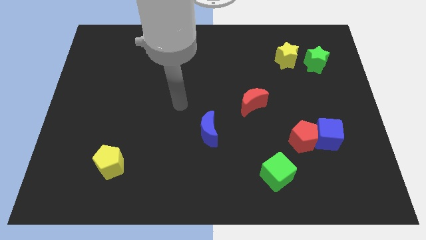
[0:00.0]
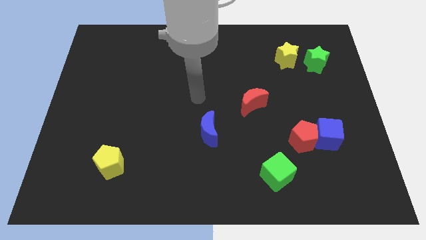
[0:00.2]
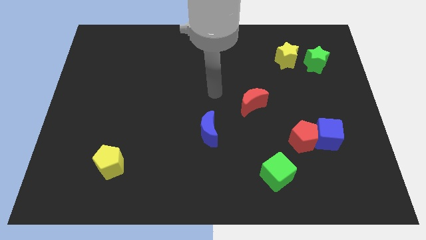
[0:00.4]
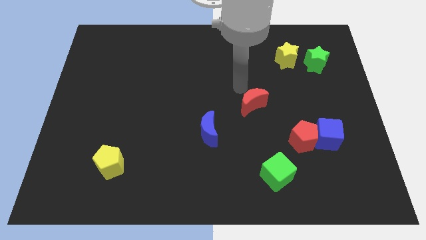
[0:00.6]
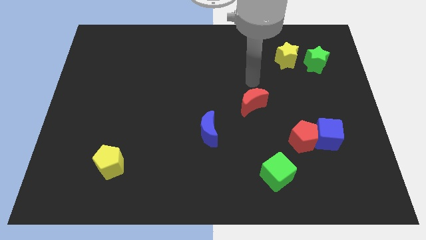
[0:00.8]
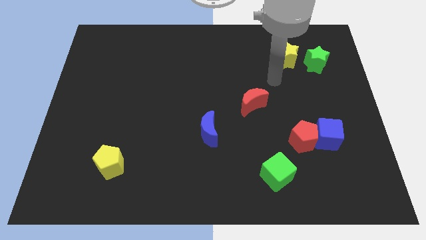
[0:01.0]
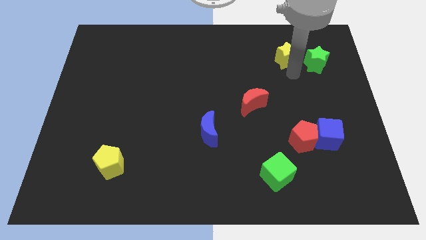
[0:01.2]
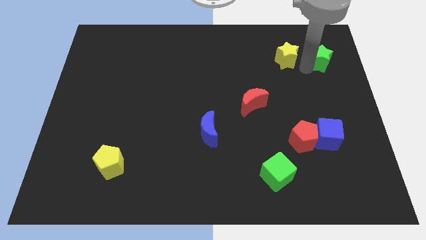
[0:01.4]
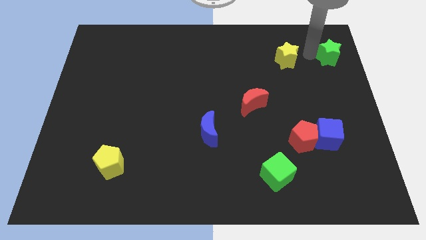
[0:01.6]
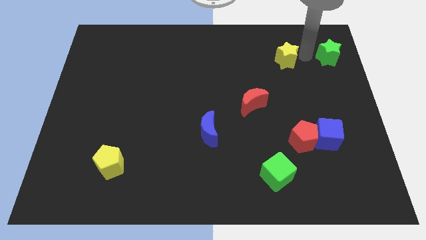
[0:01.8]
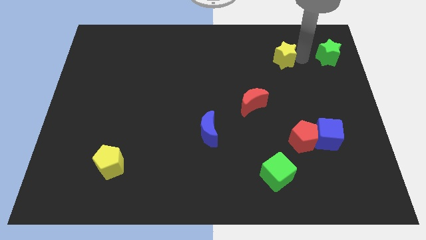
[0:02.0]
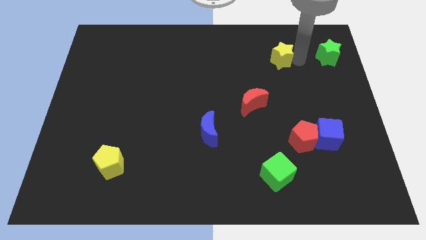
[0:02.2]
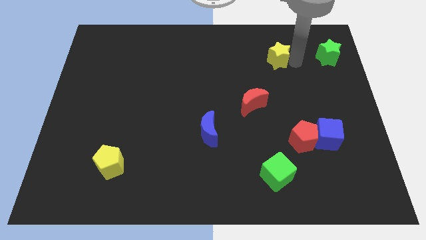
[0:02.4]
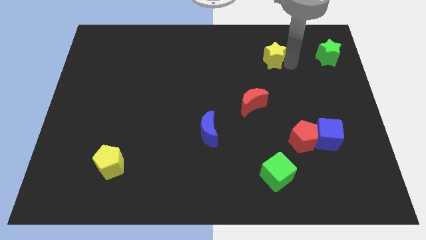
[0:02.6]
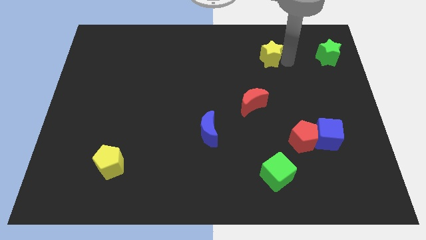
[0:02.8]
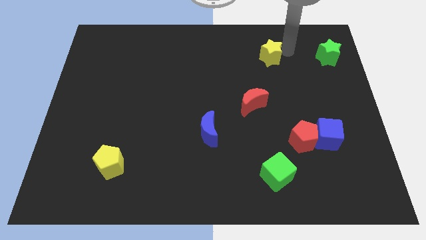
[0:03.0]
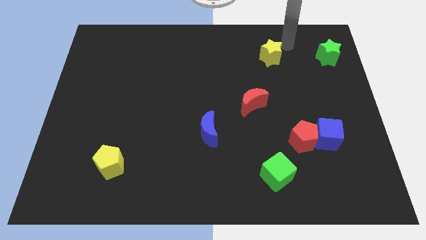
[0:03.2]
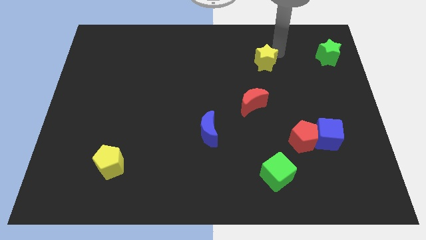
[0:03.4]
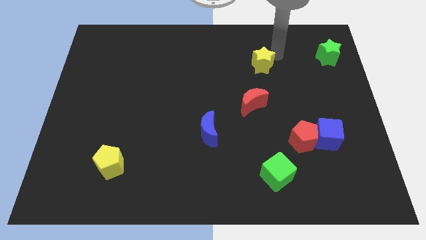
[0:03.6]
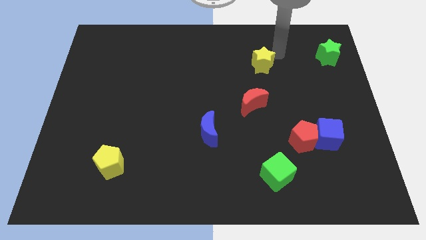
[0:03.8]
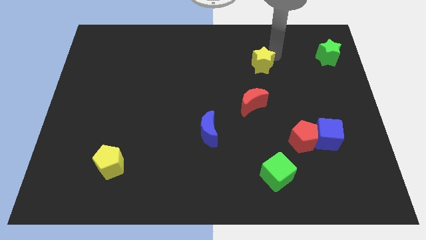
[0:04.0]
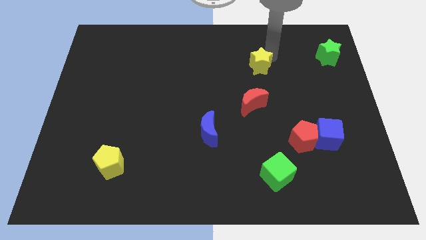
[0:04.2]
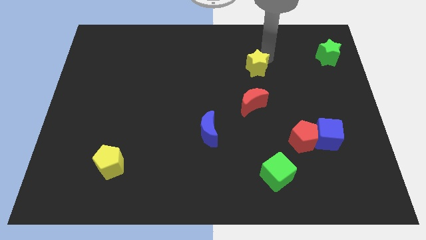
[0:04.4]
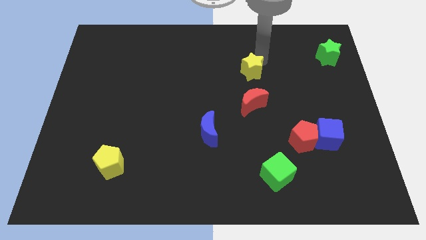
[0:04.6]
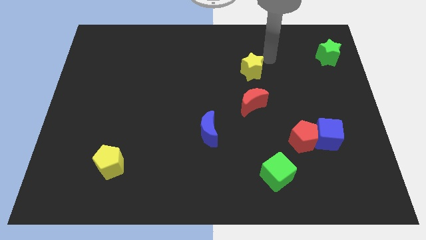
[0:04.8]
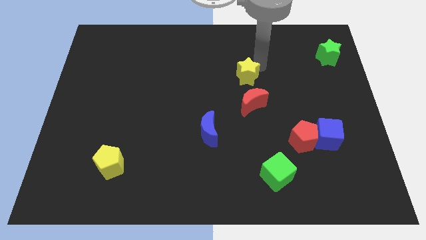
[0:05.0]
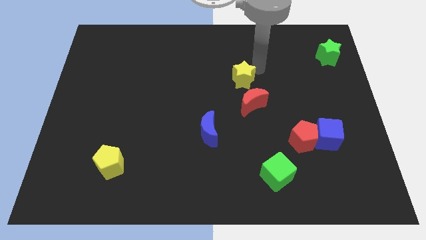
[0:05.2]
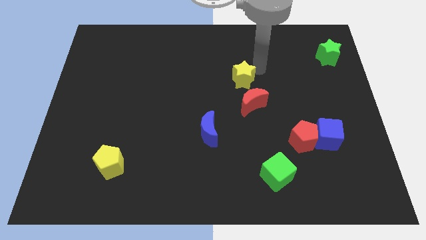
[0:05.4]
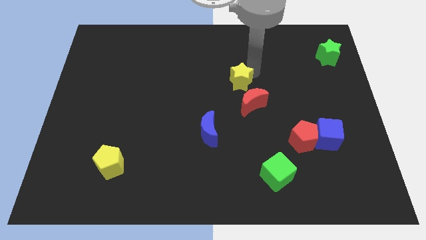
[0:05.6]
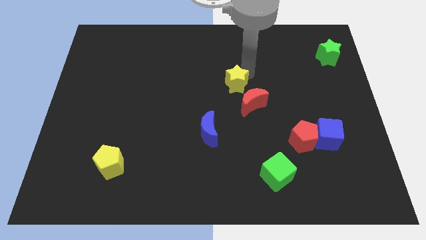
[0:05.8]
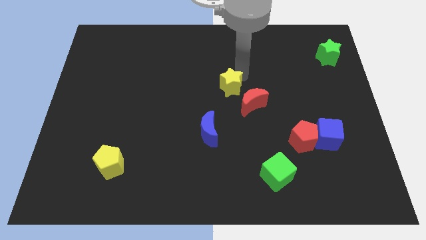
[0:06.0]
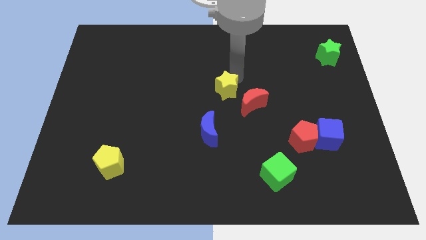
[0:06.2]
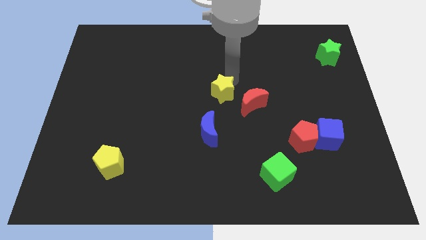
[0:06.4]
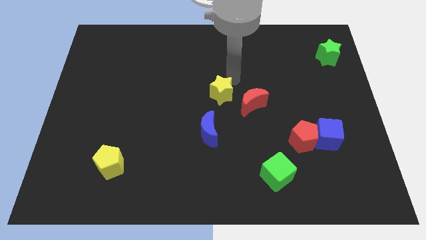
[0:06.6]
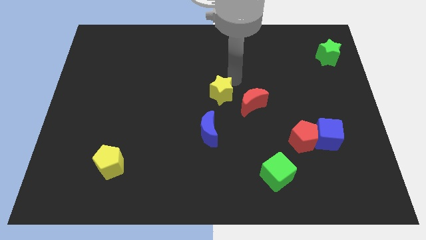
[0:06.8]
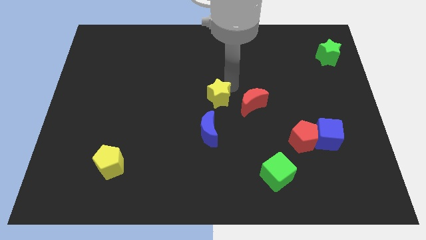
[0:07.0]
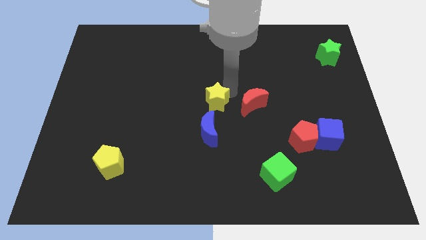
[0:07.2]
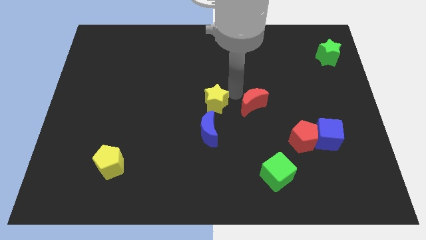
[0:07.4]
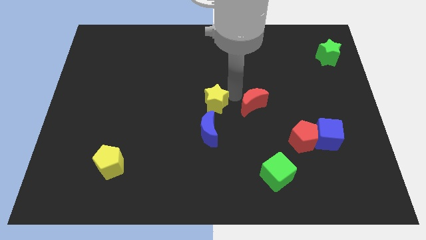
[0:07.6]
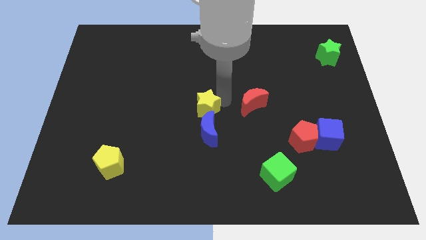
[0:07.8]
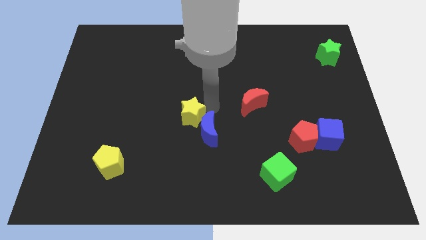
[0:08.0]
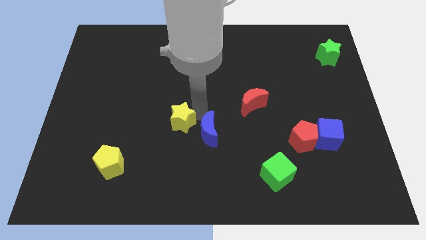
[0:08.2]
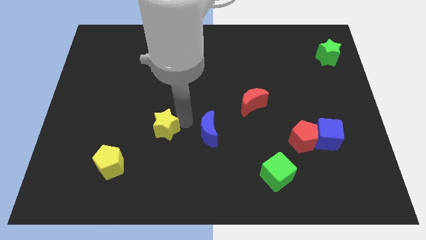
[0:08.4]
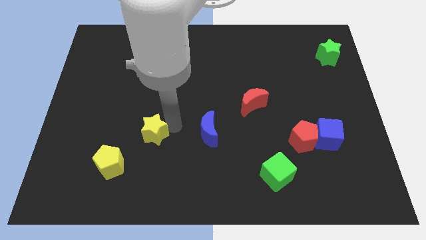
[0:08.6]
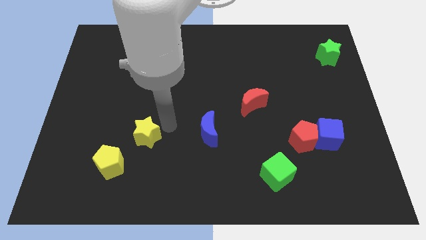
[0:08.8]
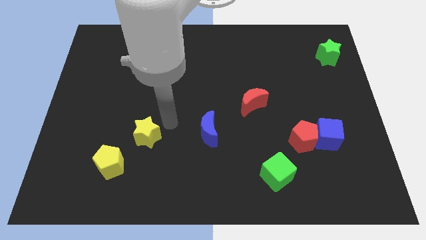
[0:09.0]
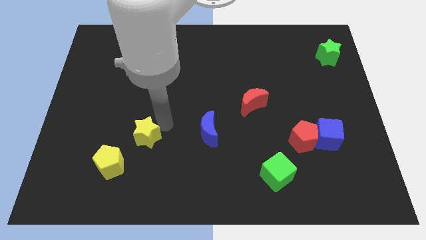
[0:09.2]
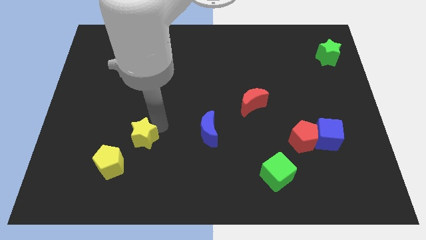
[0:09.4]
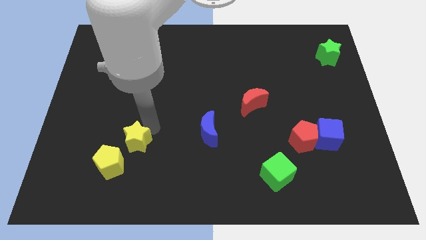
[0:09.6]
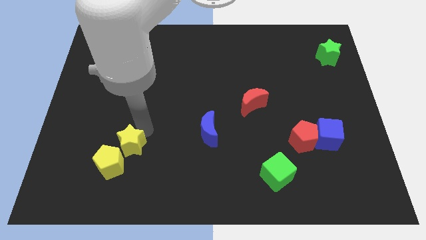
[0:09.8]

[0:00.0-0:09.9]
push the yellow star close to the yellow pentagon

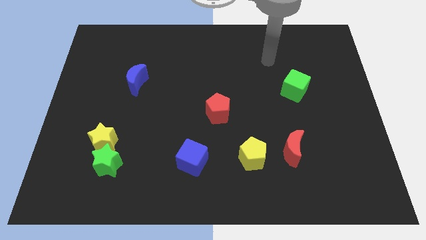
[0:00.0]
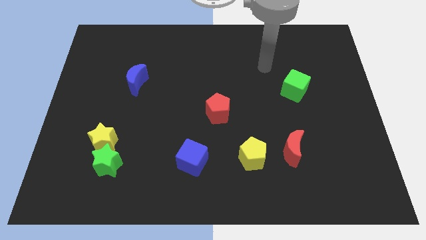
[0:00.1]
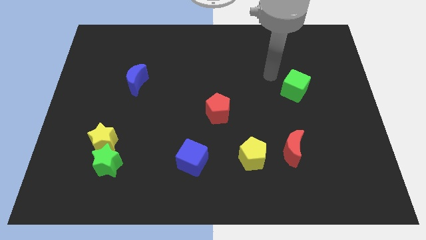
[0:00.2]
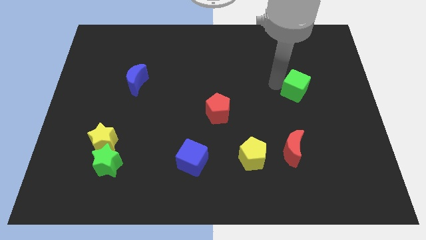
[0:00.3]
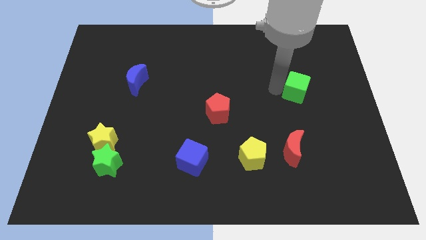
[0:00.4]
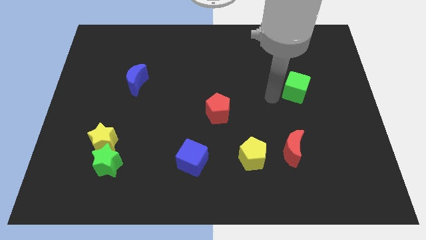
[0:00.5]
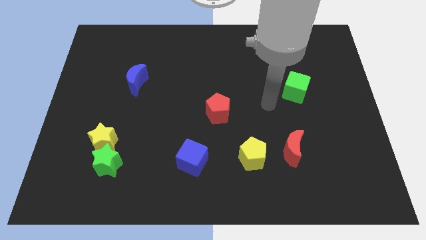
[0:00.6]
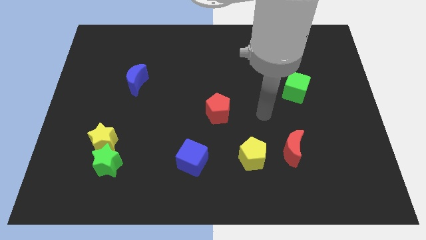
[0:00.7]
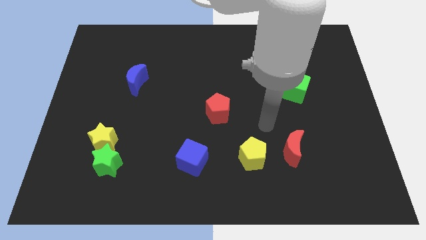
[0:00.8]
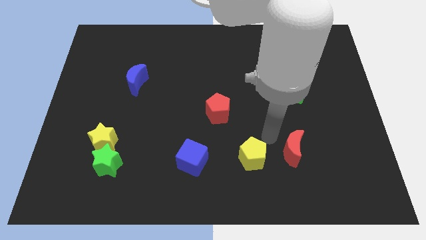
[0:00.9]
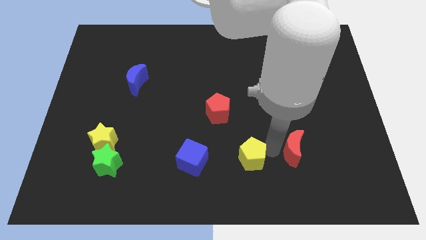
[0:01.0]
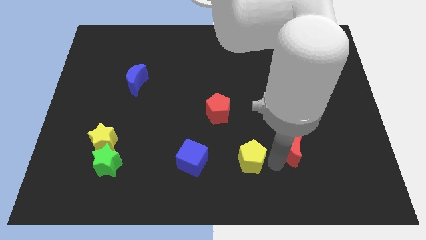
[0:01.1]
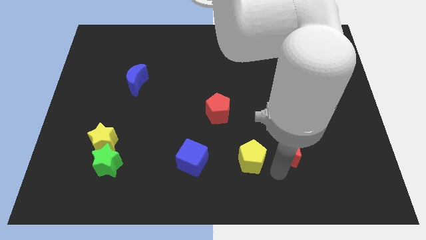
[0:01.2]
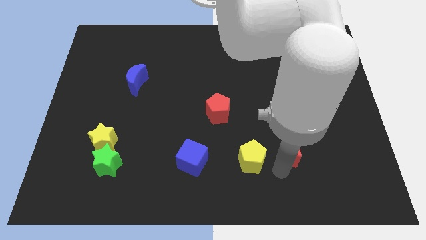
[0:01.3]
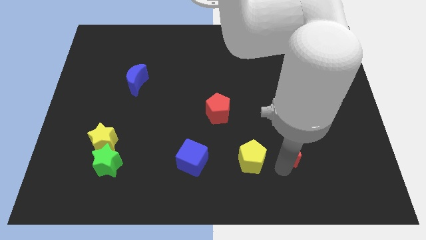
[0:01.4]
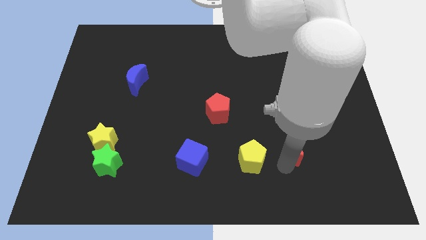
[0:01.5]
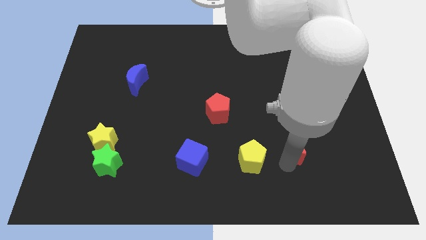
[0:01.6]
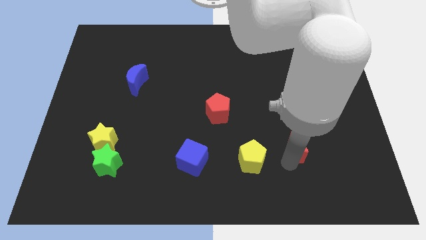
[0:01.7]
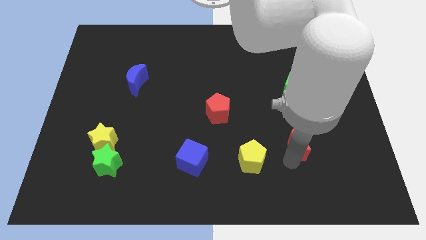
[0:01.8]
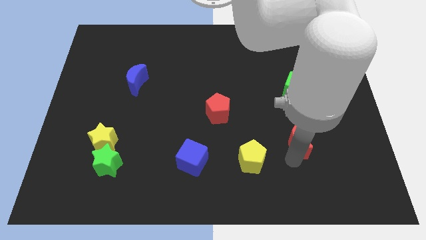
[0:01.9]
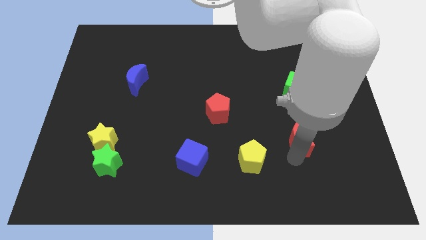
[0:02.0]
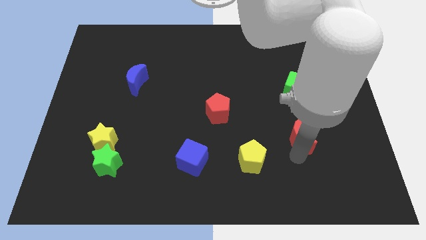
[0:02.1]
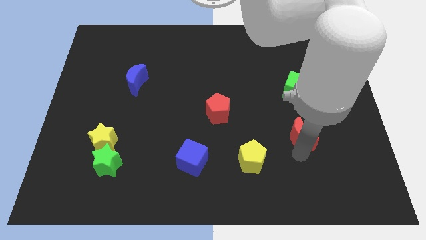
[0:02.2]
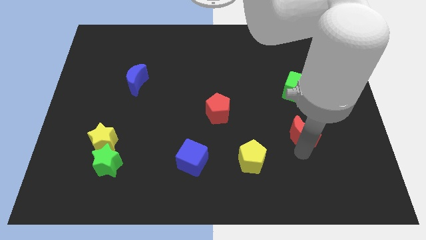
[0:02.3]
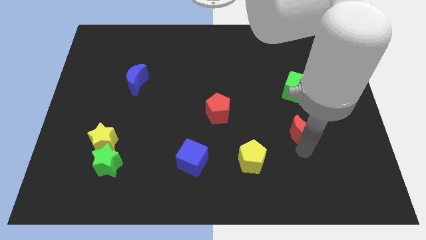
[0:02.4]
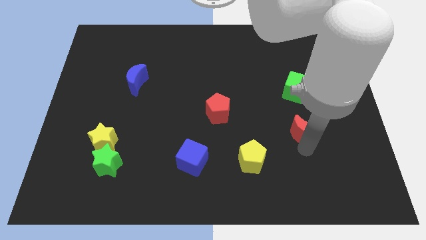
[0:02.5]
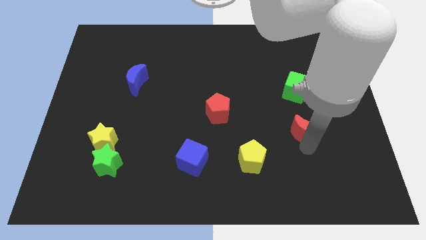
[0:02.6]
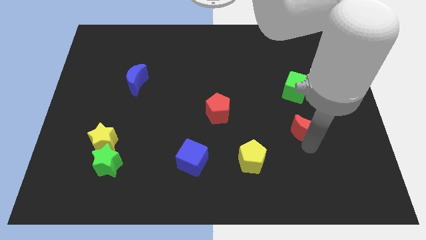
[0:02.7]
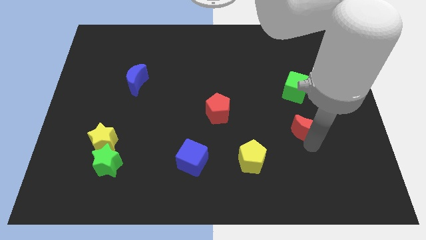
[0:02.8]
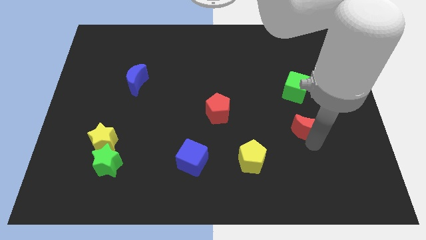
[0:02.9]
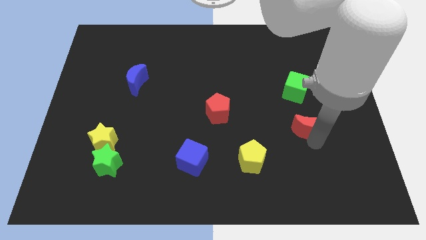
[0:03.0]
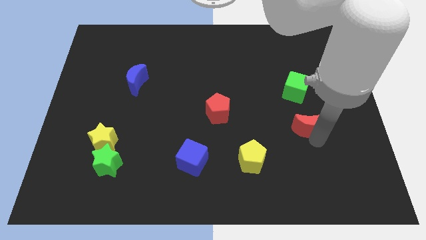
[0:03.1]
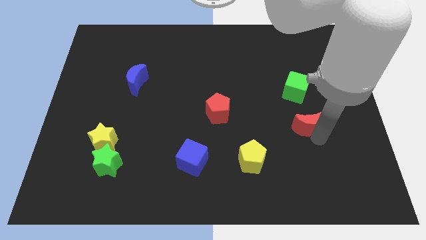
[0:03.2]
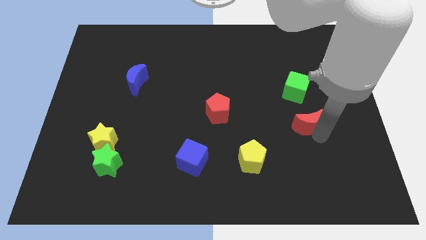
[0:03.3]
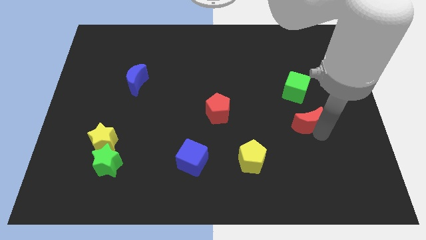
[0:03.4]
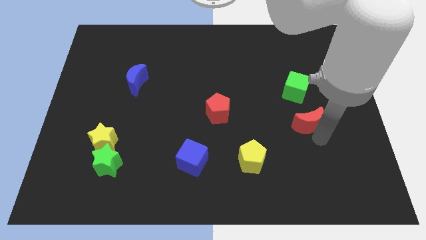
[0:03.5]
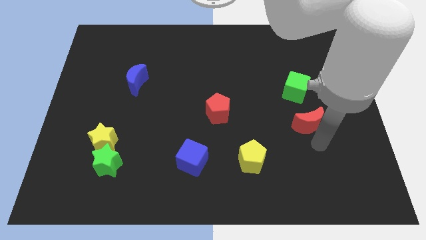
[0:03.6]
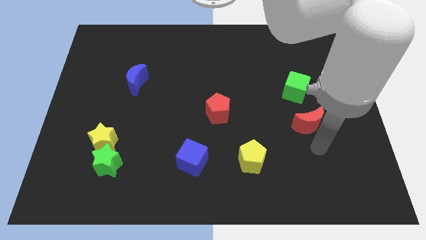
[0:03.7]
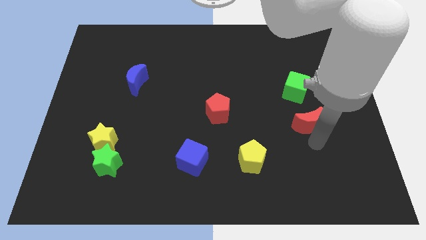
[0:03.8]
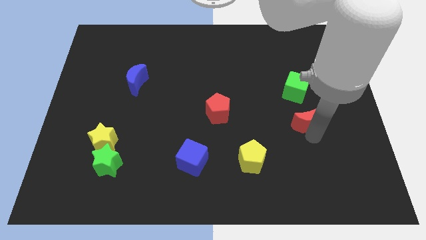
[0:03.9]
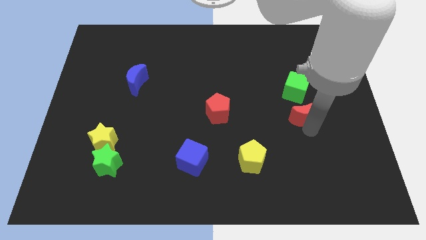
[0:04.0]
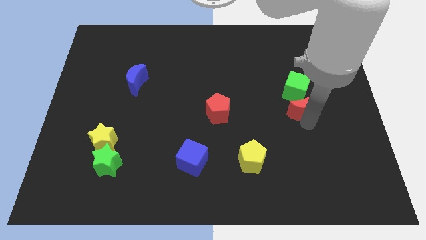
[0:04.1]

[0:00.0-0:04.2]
move the red moon towards the green cube
